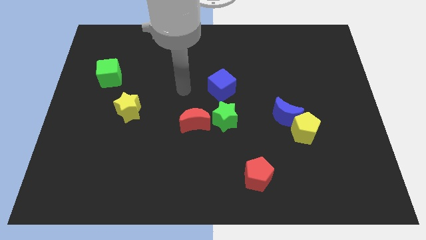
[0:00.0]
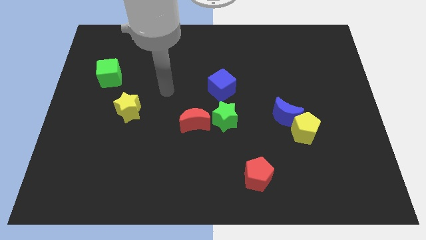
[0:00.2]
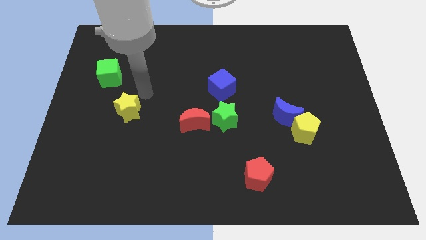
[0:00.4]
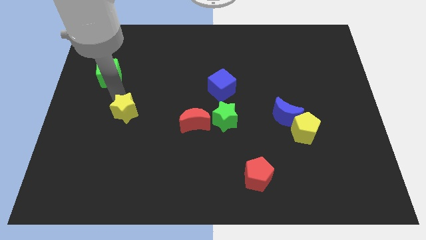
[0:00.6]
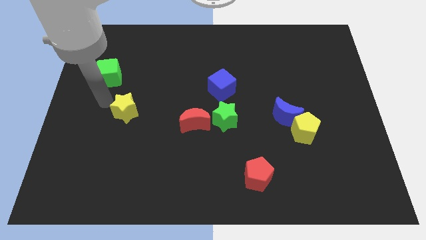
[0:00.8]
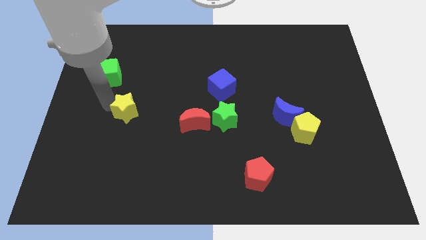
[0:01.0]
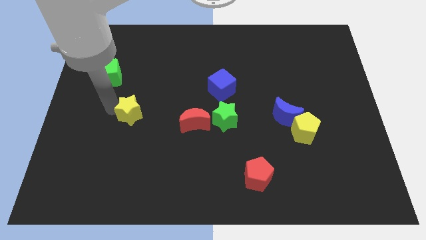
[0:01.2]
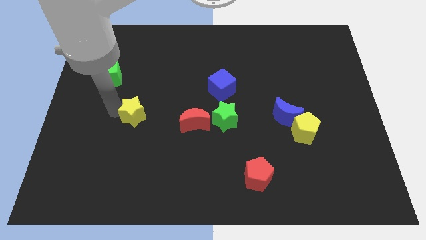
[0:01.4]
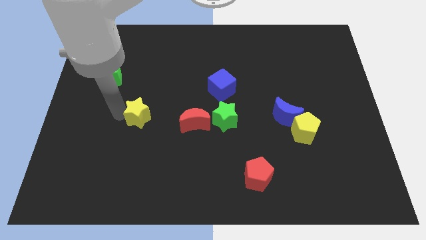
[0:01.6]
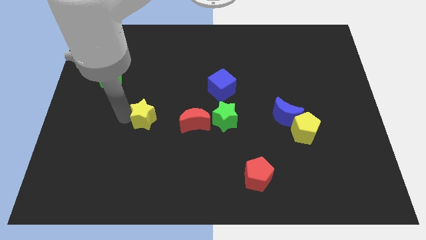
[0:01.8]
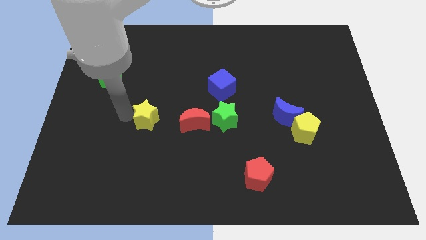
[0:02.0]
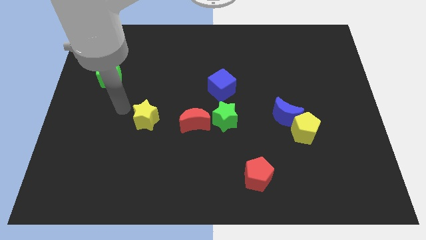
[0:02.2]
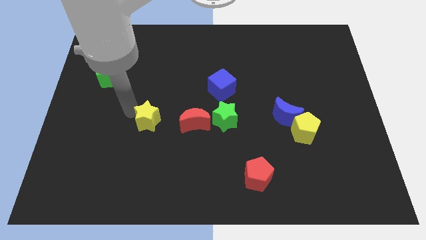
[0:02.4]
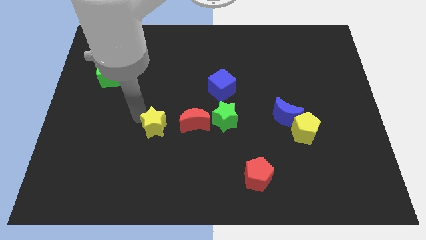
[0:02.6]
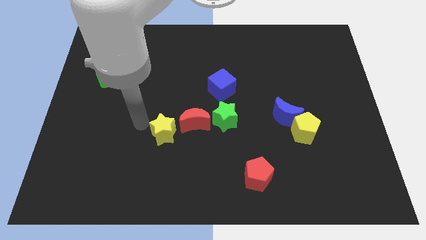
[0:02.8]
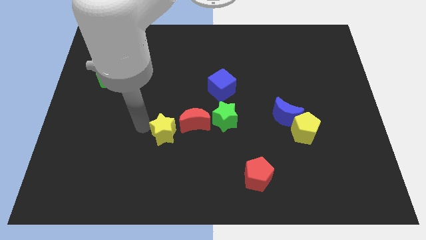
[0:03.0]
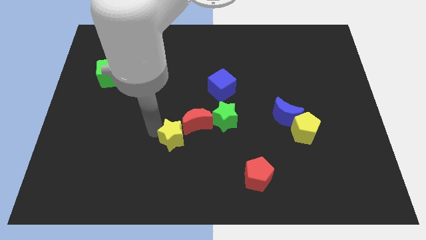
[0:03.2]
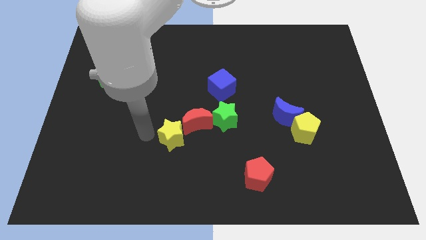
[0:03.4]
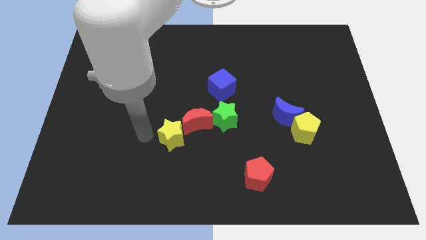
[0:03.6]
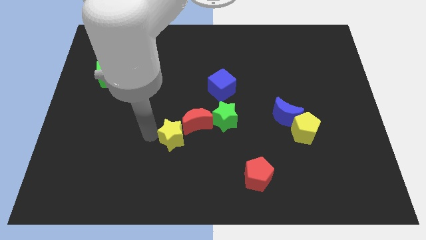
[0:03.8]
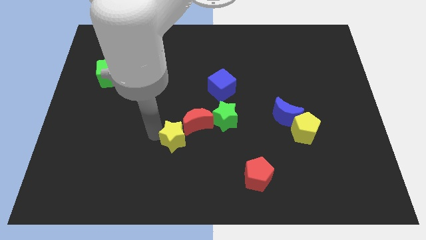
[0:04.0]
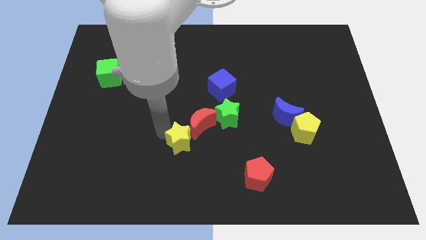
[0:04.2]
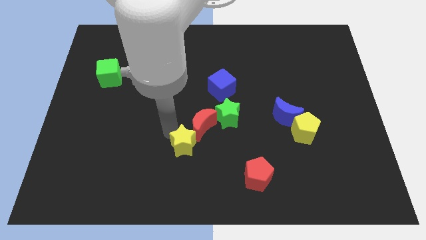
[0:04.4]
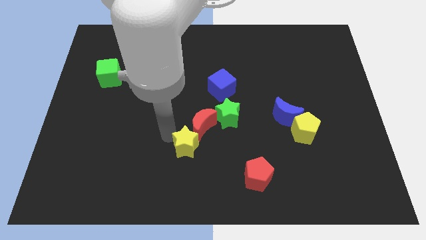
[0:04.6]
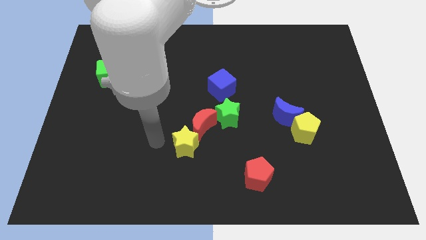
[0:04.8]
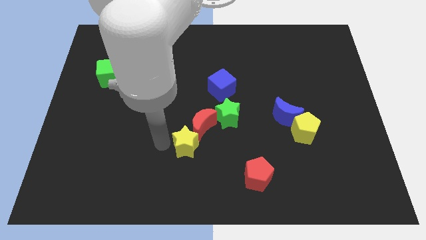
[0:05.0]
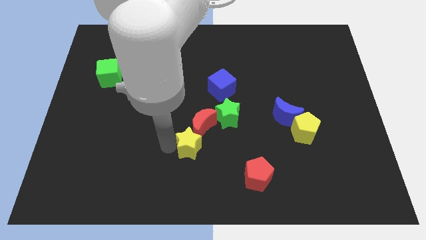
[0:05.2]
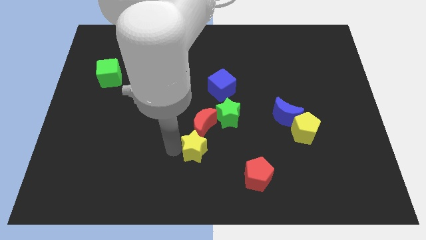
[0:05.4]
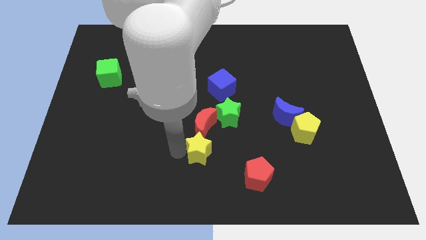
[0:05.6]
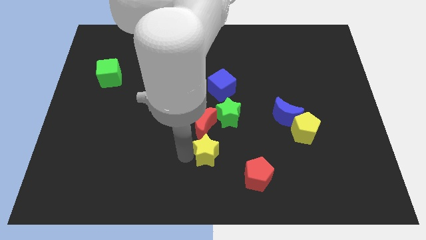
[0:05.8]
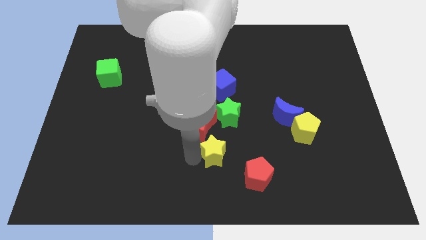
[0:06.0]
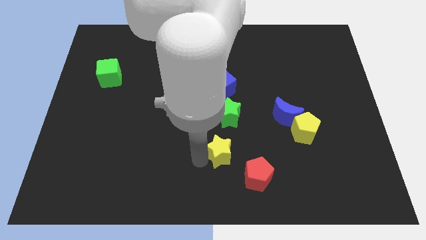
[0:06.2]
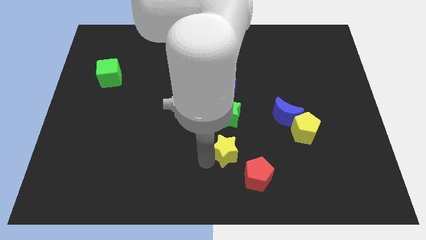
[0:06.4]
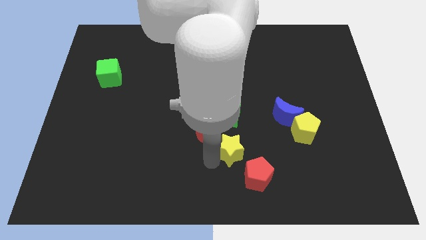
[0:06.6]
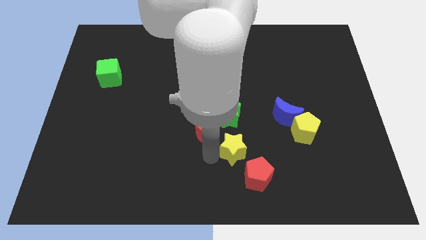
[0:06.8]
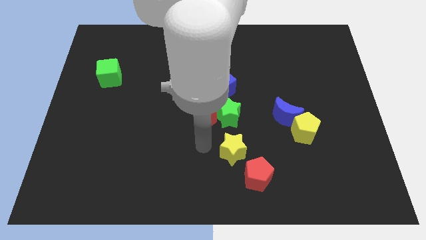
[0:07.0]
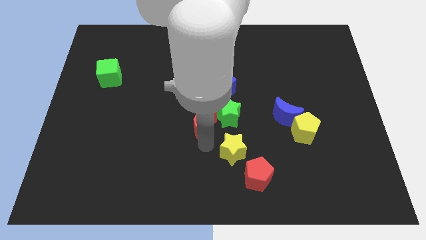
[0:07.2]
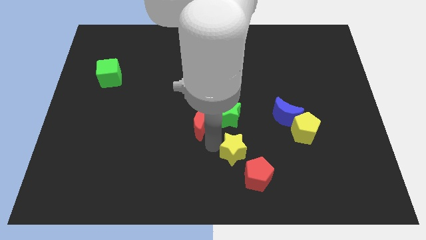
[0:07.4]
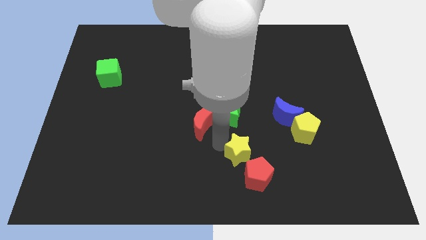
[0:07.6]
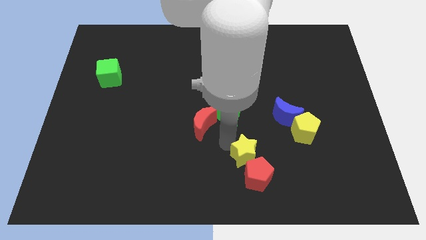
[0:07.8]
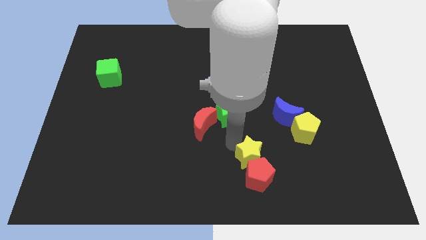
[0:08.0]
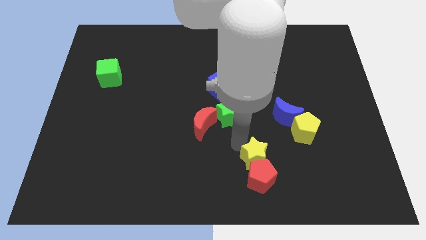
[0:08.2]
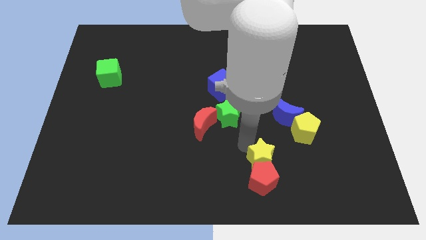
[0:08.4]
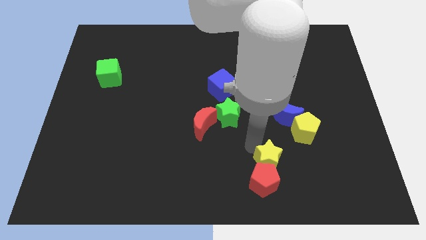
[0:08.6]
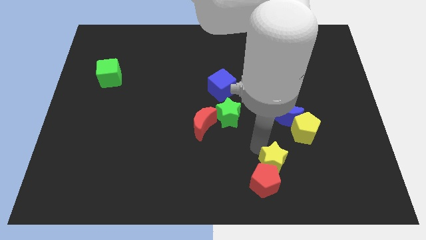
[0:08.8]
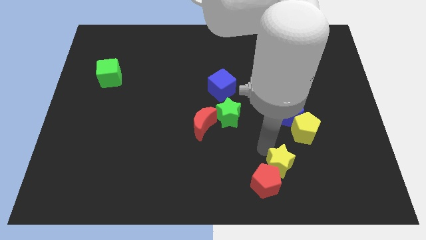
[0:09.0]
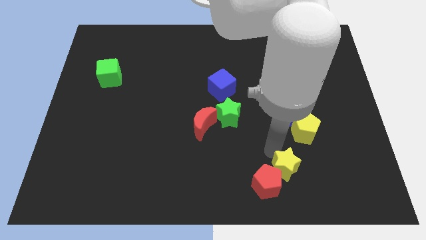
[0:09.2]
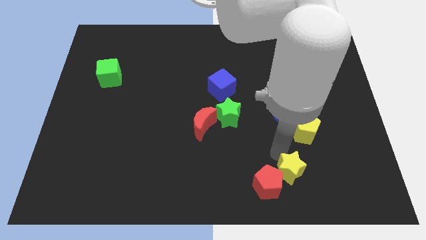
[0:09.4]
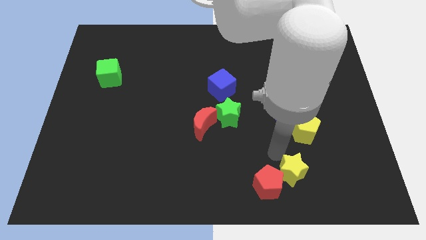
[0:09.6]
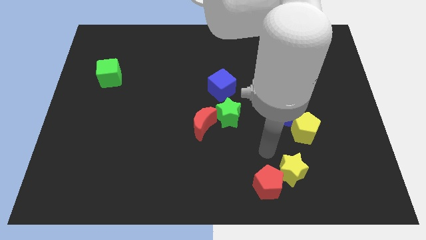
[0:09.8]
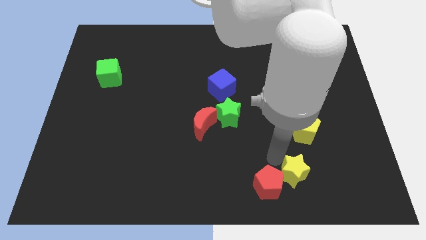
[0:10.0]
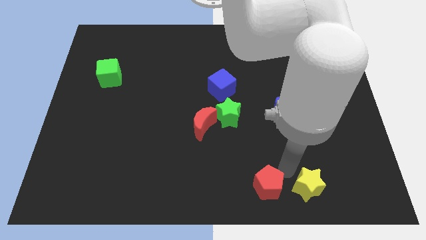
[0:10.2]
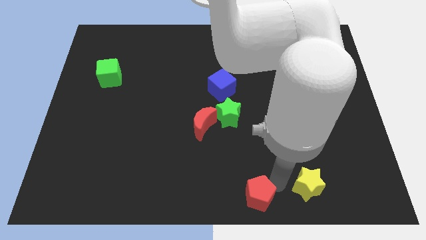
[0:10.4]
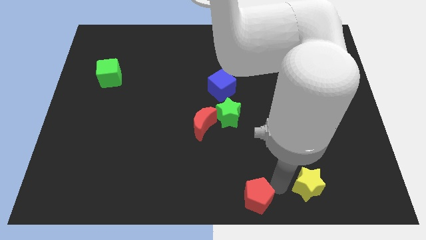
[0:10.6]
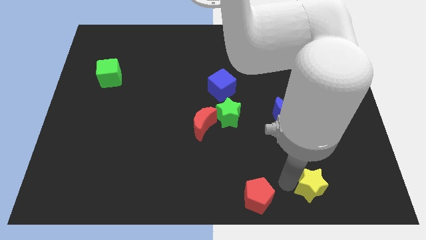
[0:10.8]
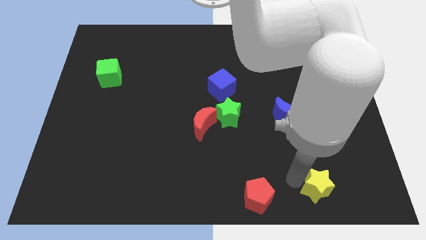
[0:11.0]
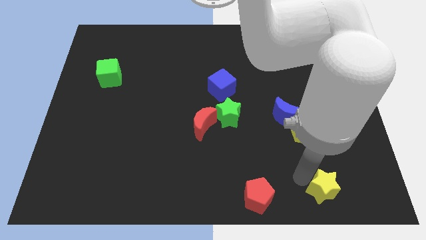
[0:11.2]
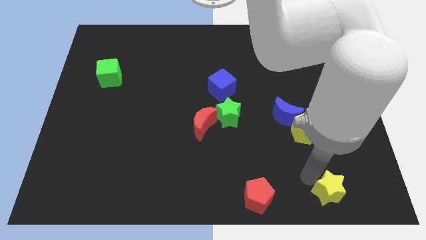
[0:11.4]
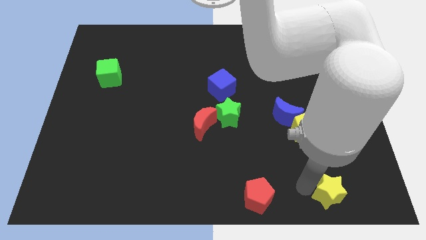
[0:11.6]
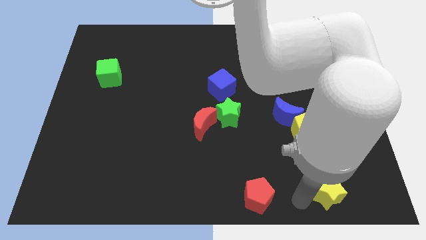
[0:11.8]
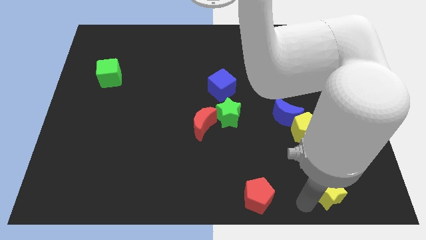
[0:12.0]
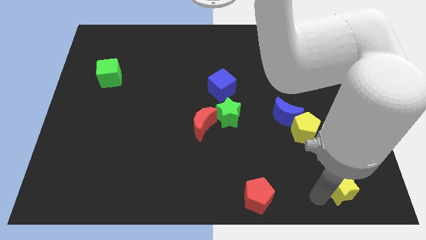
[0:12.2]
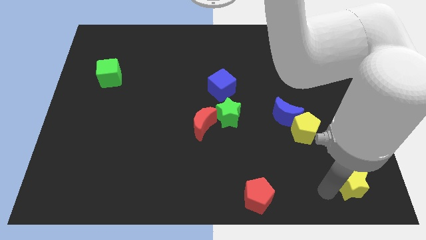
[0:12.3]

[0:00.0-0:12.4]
move the yellow star to the bottom right of the board
